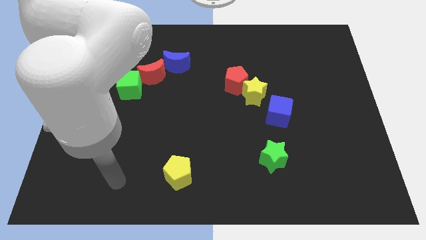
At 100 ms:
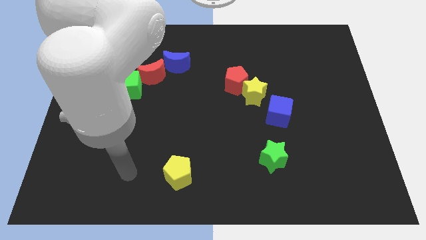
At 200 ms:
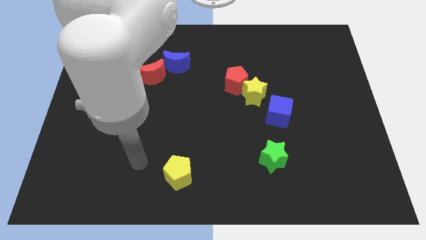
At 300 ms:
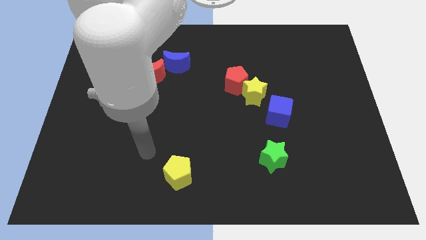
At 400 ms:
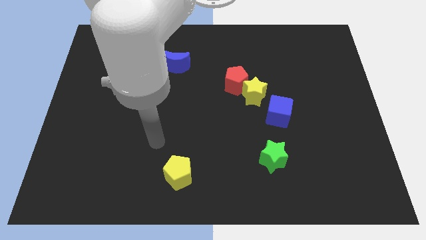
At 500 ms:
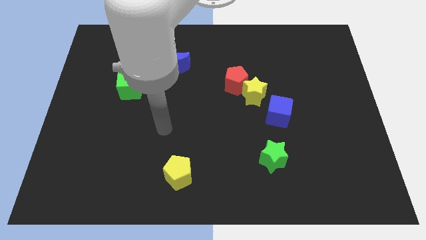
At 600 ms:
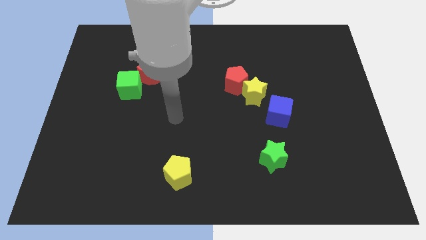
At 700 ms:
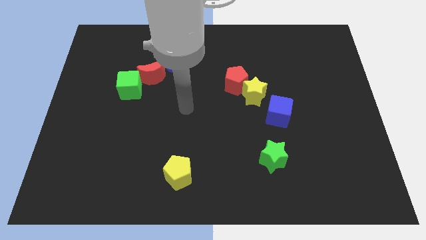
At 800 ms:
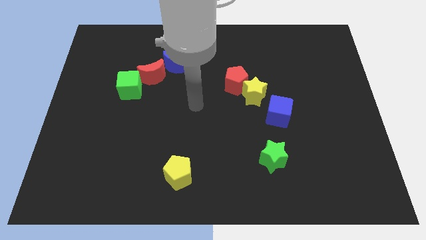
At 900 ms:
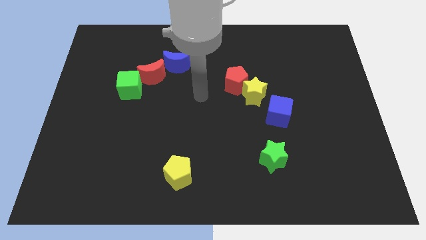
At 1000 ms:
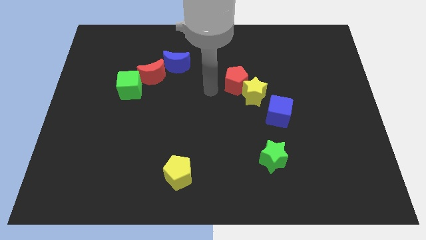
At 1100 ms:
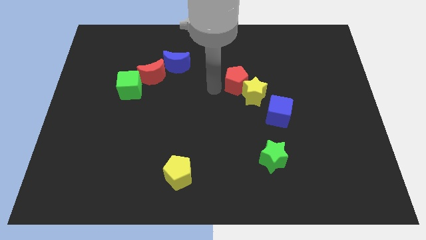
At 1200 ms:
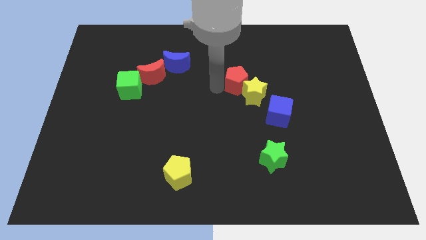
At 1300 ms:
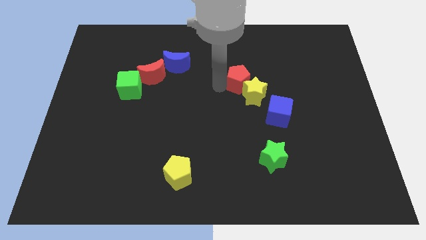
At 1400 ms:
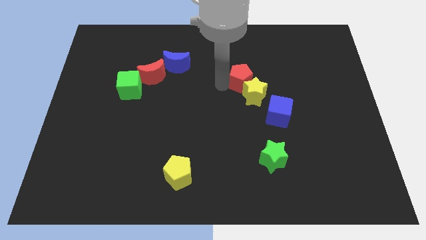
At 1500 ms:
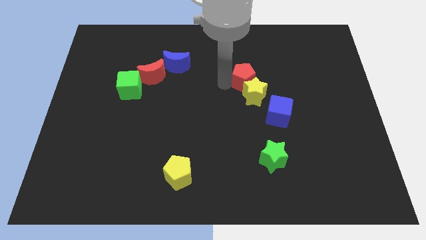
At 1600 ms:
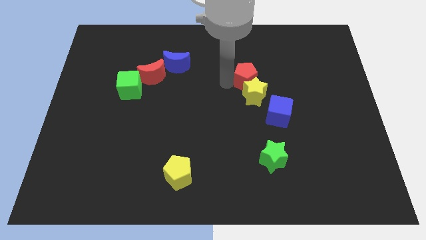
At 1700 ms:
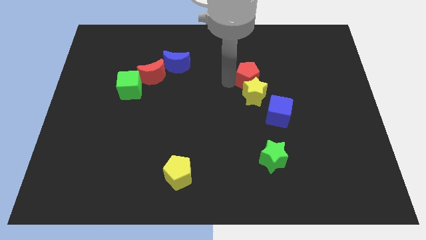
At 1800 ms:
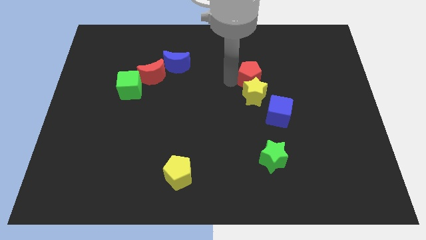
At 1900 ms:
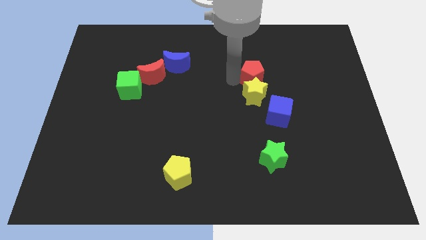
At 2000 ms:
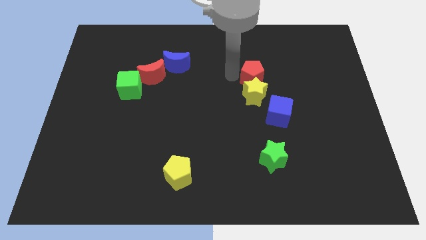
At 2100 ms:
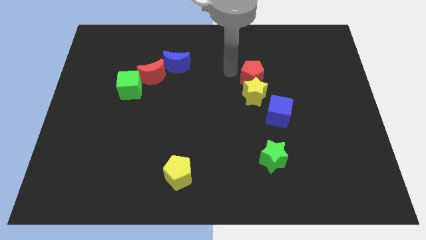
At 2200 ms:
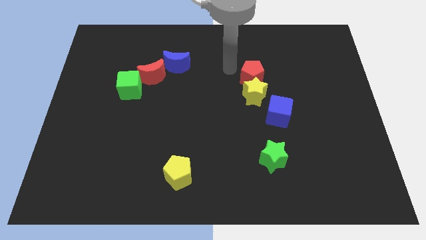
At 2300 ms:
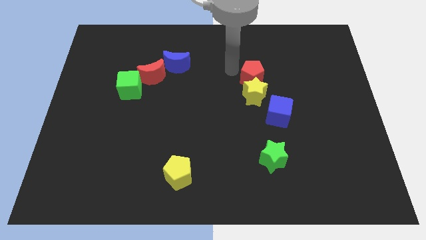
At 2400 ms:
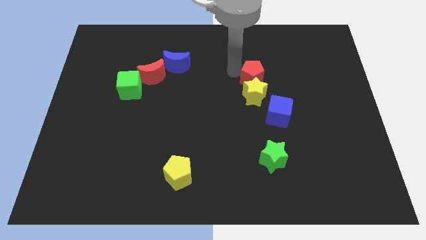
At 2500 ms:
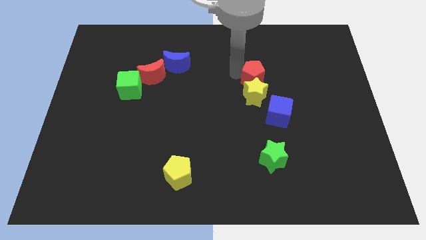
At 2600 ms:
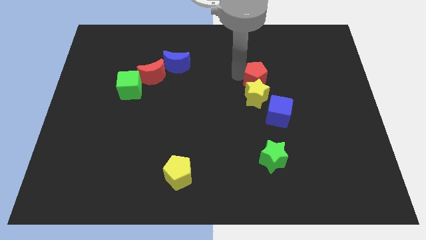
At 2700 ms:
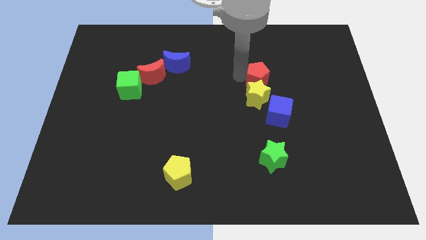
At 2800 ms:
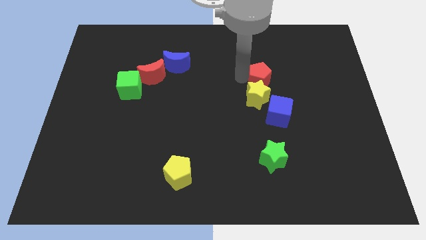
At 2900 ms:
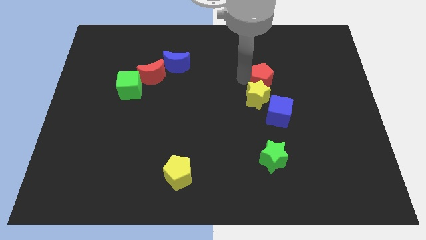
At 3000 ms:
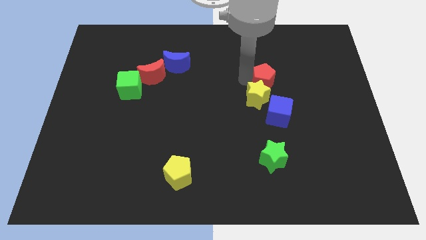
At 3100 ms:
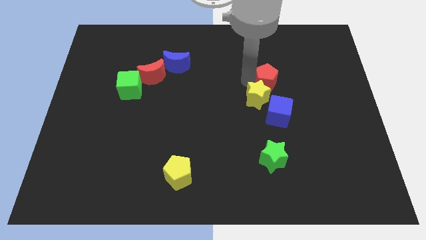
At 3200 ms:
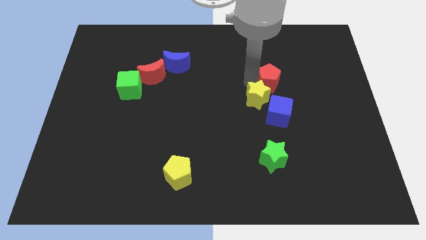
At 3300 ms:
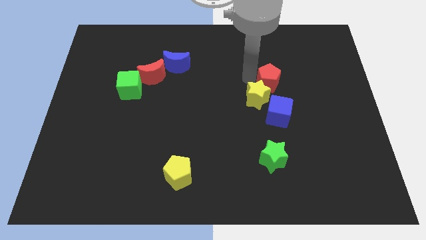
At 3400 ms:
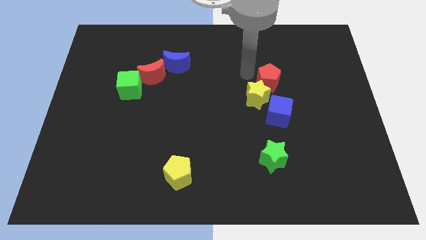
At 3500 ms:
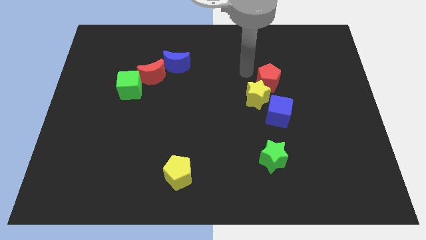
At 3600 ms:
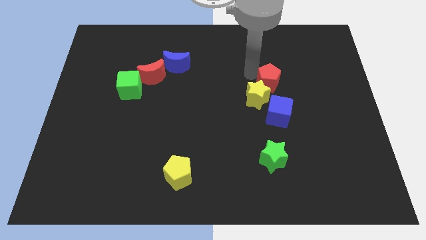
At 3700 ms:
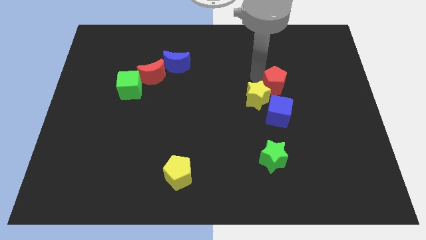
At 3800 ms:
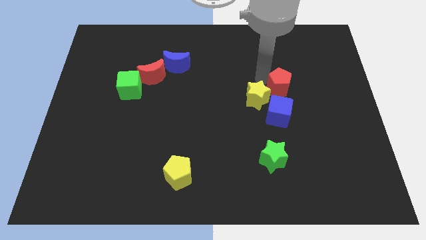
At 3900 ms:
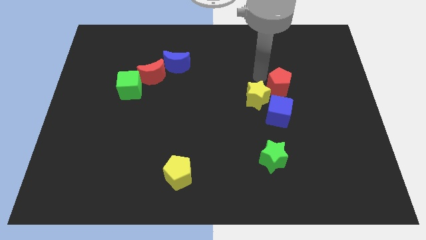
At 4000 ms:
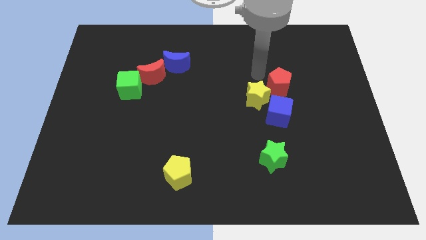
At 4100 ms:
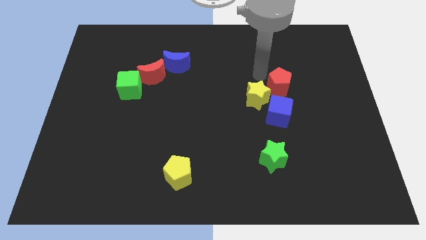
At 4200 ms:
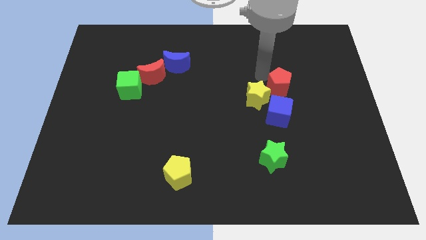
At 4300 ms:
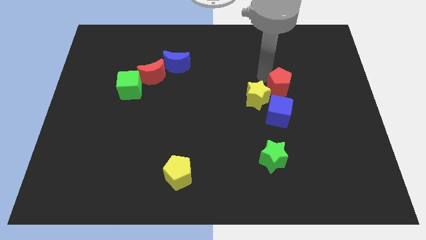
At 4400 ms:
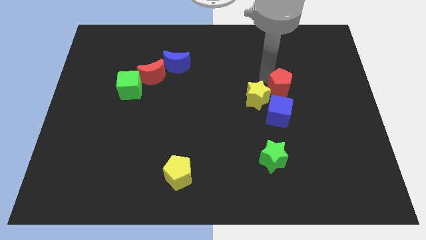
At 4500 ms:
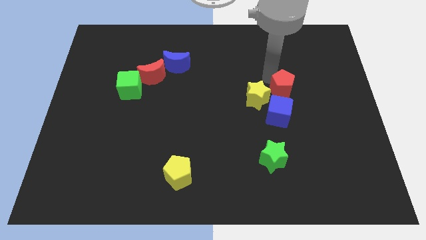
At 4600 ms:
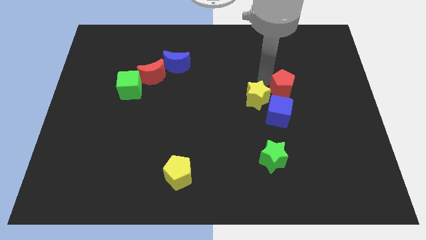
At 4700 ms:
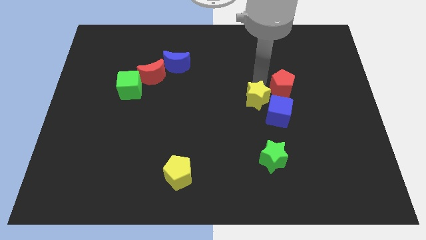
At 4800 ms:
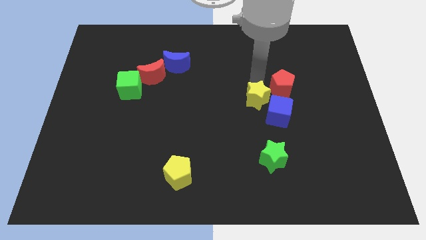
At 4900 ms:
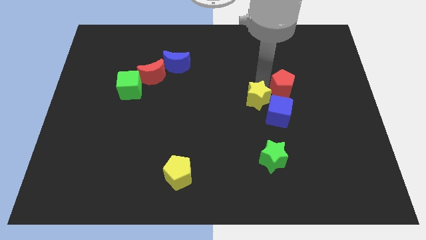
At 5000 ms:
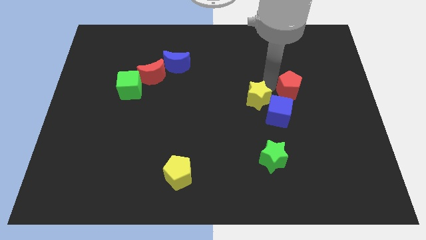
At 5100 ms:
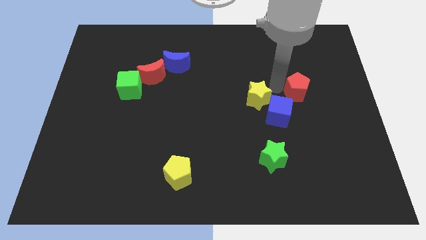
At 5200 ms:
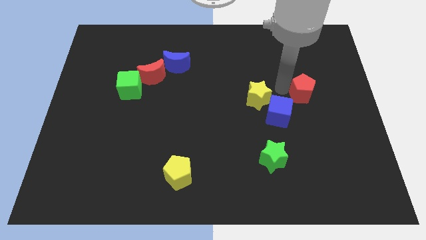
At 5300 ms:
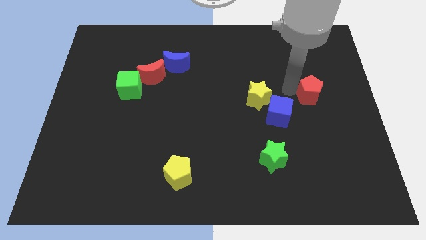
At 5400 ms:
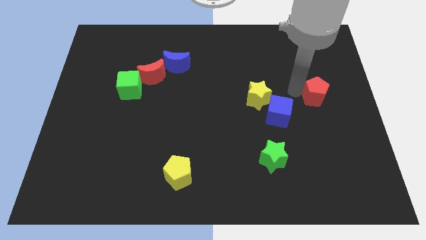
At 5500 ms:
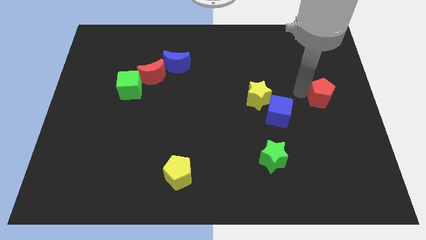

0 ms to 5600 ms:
slide the red pentagon to the right side

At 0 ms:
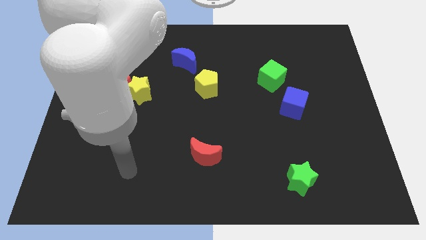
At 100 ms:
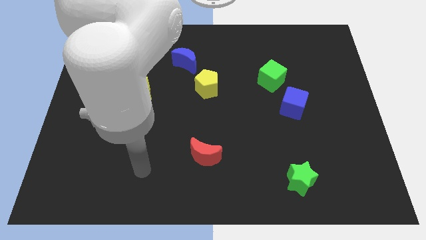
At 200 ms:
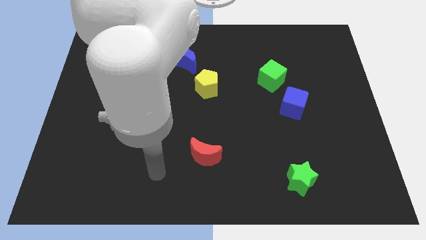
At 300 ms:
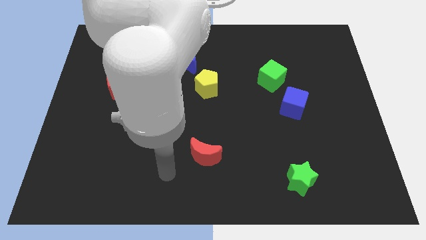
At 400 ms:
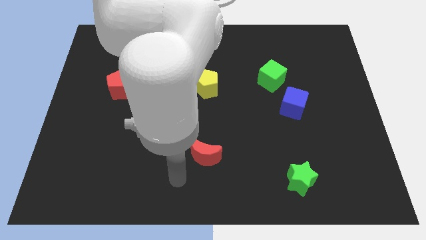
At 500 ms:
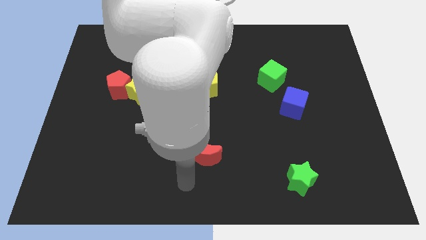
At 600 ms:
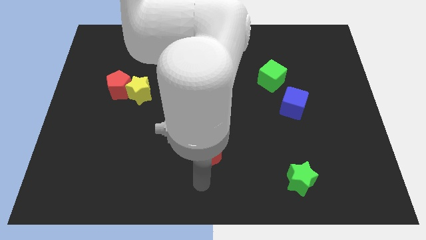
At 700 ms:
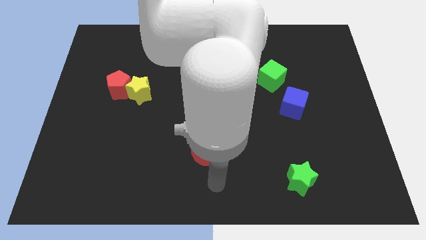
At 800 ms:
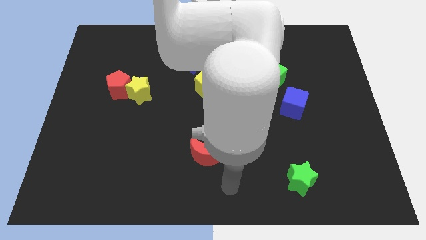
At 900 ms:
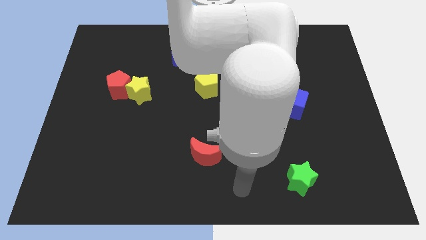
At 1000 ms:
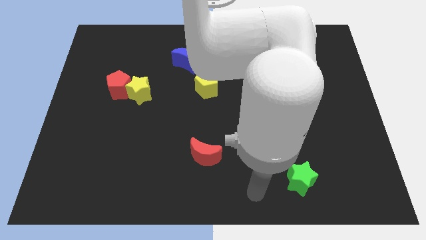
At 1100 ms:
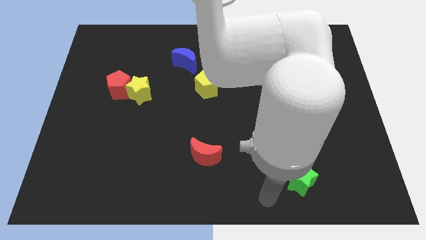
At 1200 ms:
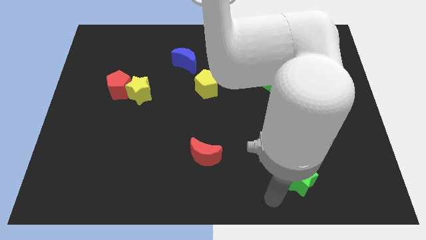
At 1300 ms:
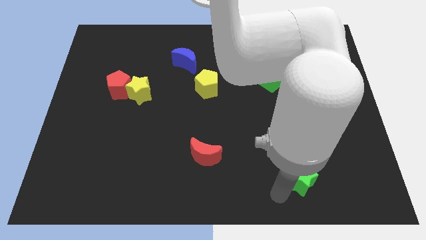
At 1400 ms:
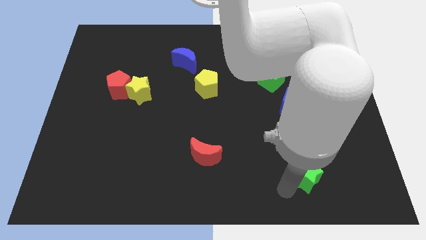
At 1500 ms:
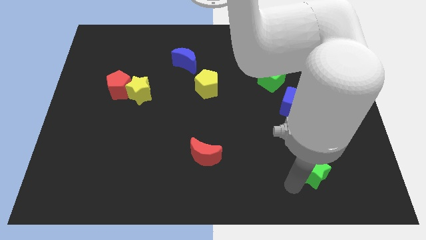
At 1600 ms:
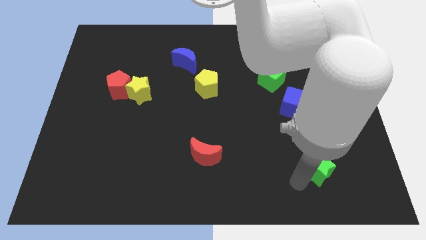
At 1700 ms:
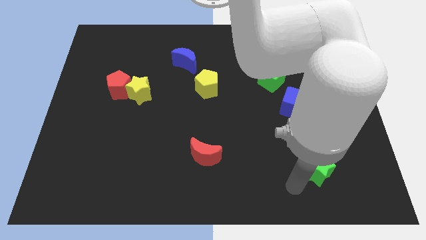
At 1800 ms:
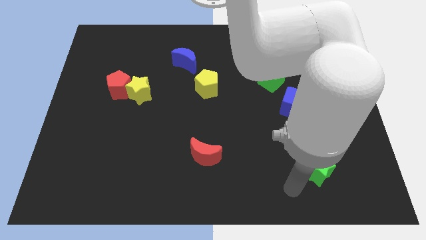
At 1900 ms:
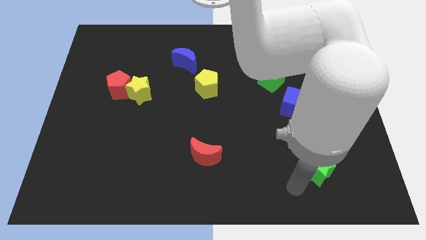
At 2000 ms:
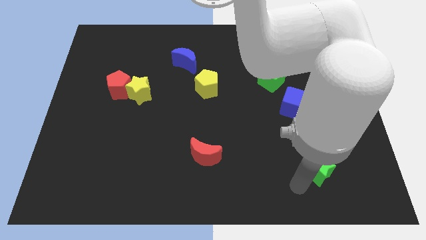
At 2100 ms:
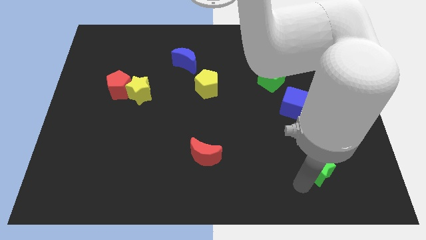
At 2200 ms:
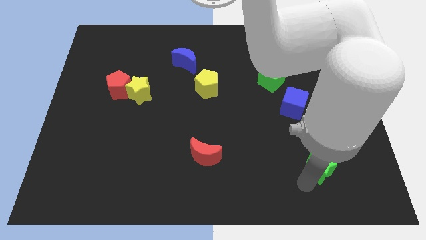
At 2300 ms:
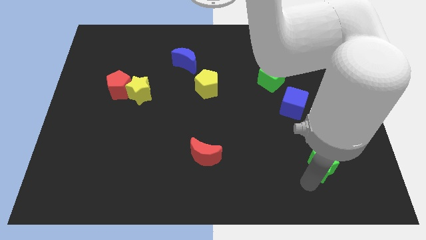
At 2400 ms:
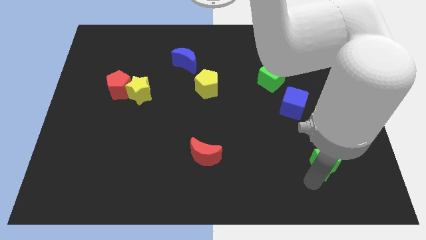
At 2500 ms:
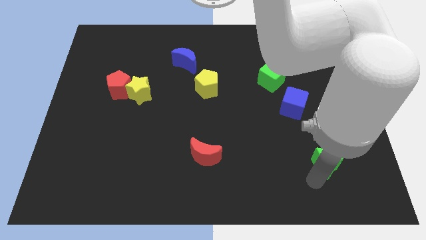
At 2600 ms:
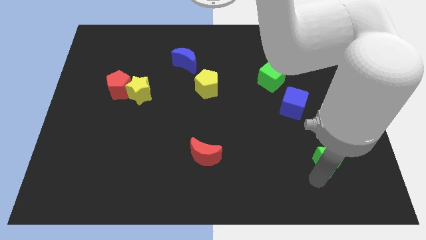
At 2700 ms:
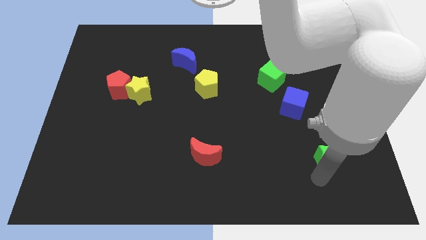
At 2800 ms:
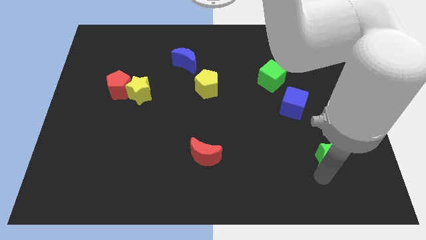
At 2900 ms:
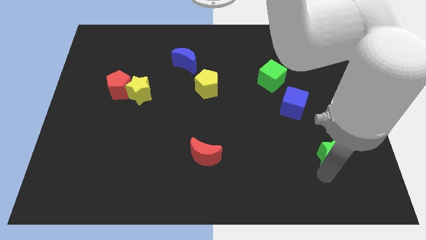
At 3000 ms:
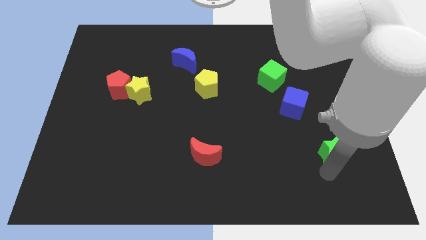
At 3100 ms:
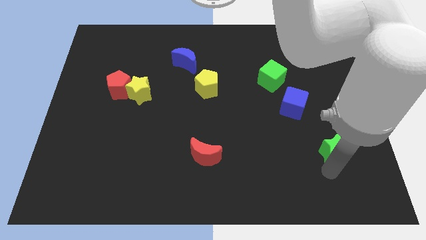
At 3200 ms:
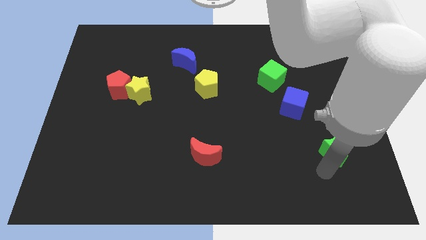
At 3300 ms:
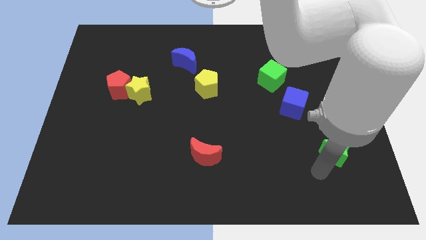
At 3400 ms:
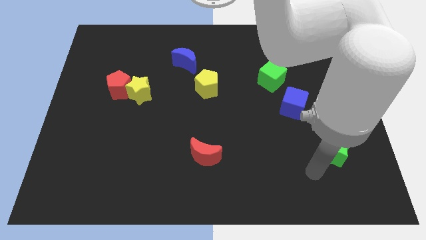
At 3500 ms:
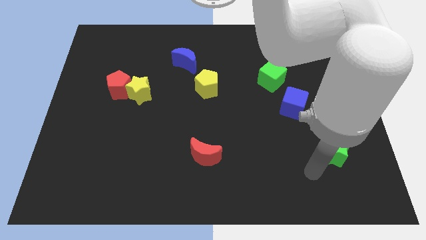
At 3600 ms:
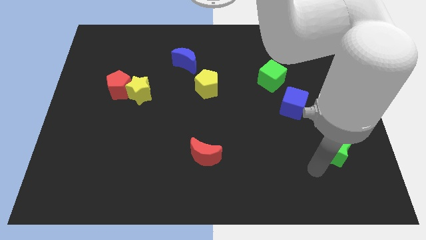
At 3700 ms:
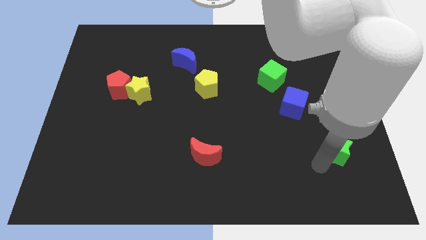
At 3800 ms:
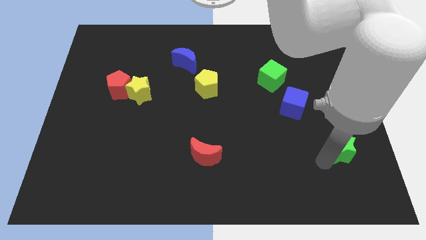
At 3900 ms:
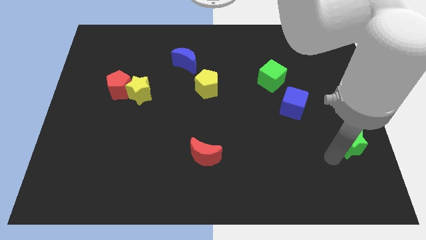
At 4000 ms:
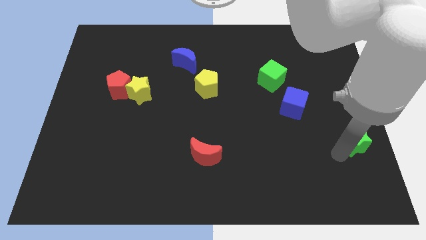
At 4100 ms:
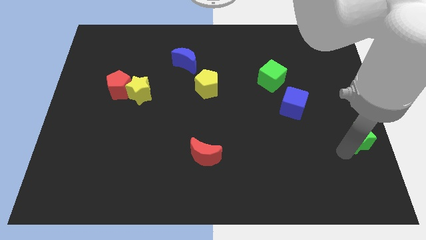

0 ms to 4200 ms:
move the green star to the right side of the board
